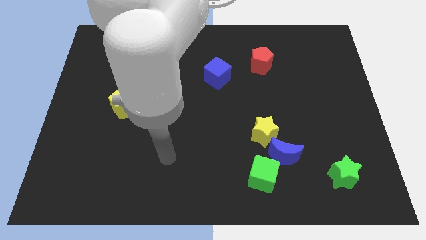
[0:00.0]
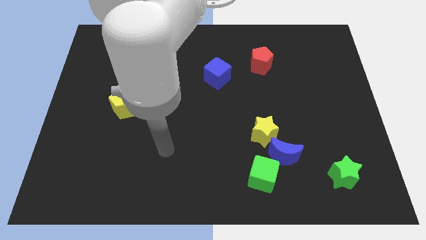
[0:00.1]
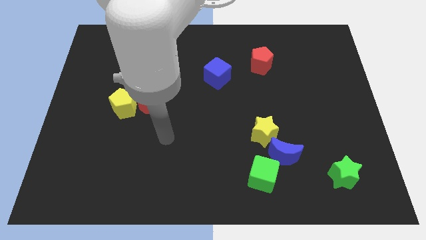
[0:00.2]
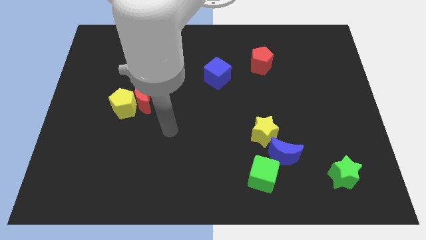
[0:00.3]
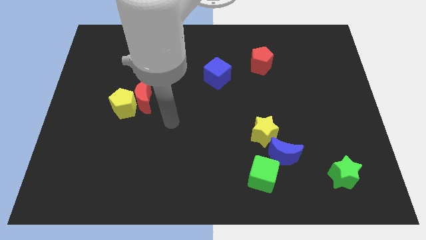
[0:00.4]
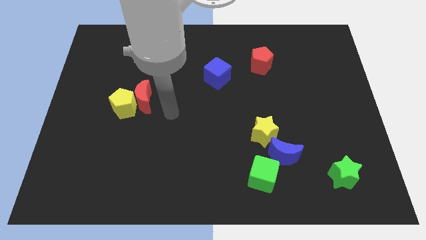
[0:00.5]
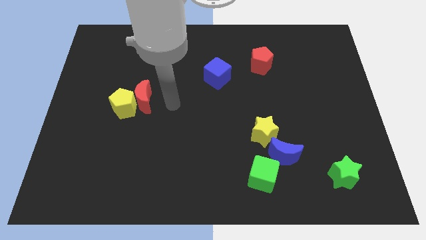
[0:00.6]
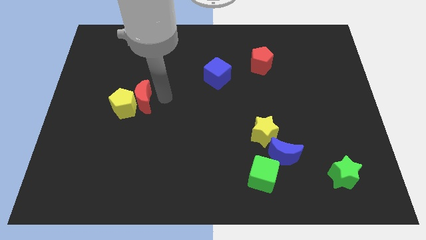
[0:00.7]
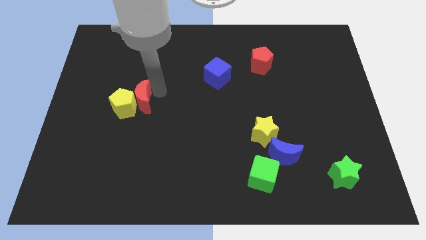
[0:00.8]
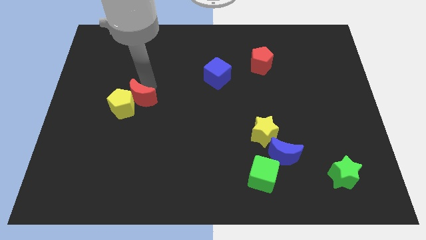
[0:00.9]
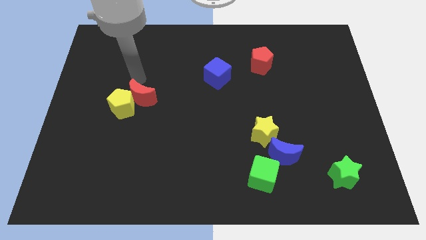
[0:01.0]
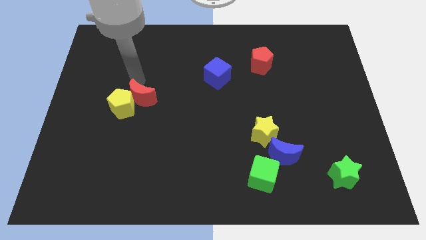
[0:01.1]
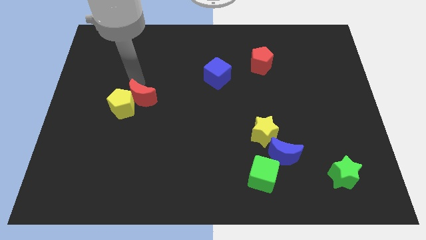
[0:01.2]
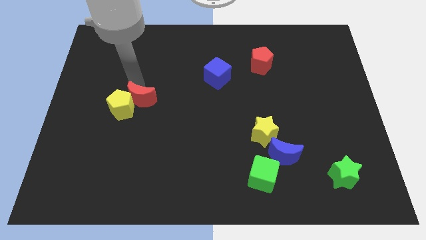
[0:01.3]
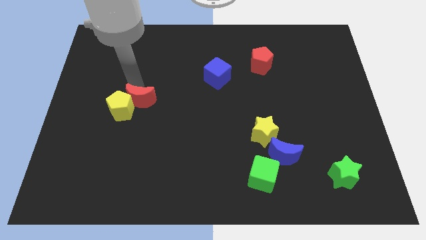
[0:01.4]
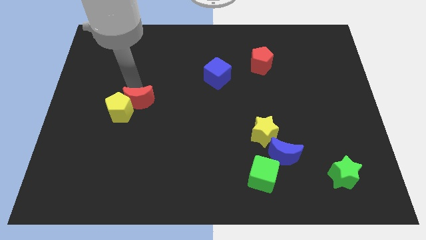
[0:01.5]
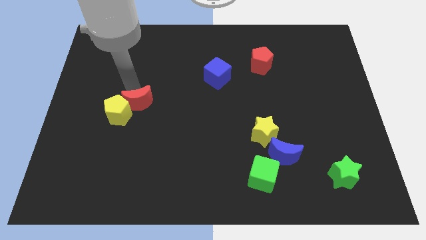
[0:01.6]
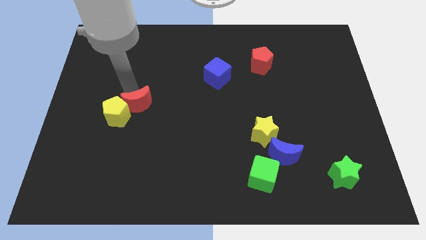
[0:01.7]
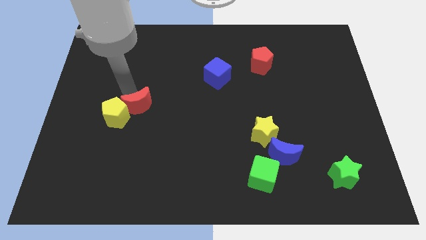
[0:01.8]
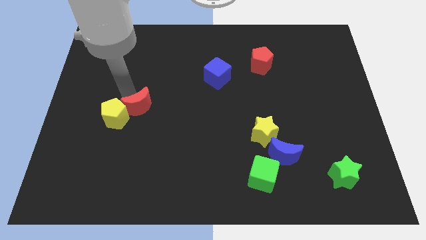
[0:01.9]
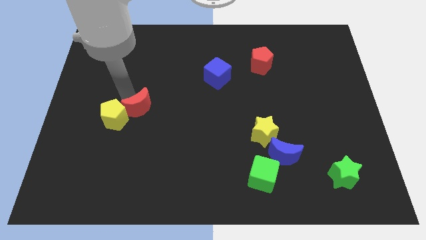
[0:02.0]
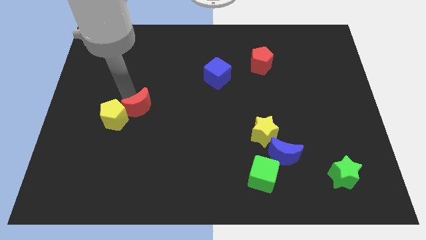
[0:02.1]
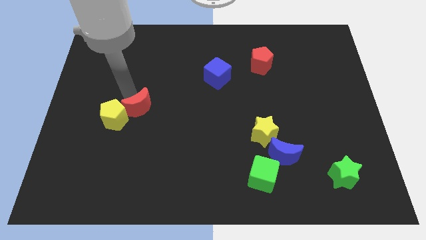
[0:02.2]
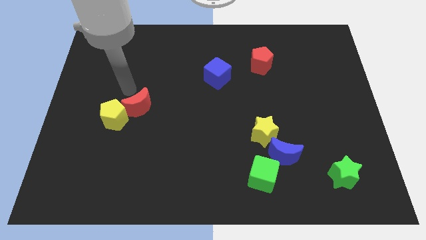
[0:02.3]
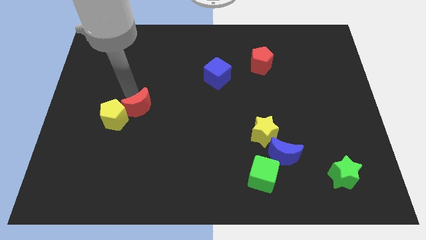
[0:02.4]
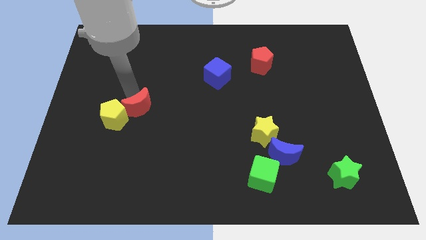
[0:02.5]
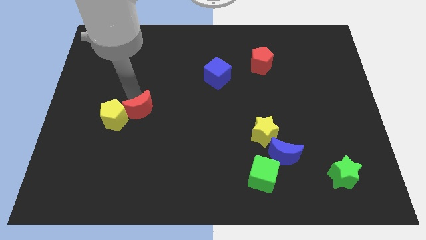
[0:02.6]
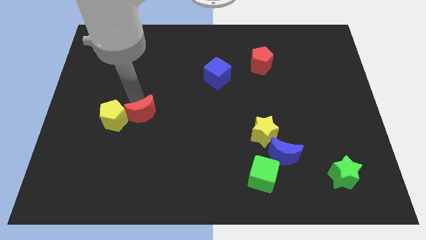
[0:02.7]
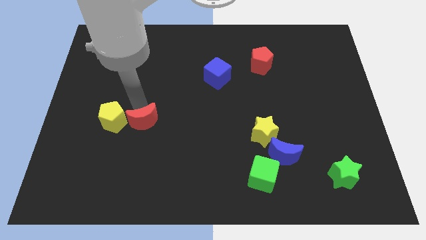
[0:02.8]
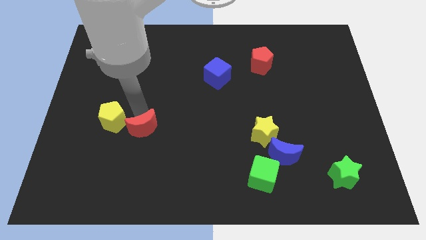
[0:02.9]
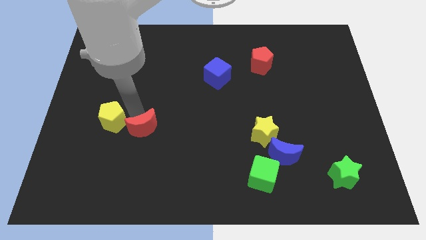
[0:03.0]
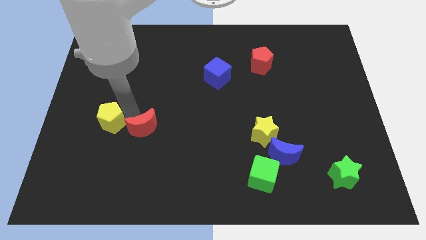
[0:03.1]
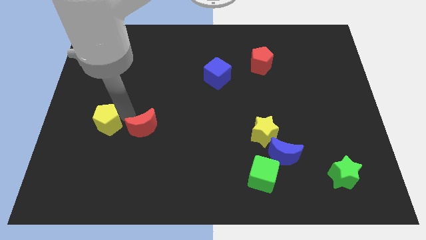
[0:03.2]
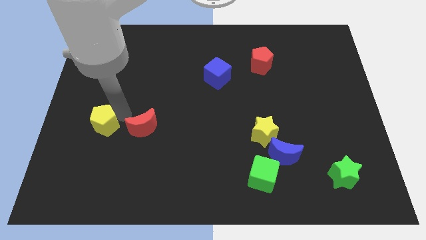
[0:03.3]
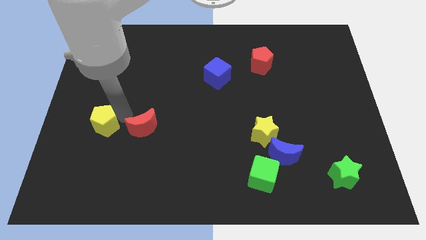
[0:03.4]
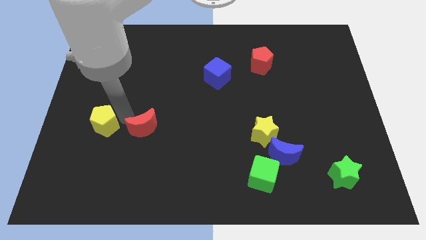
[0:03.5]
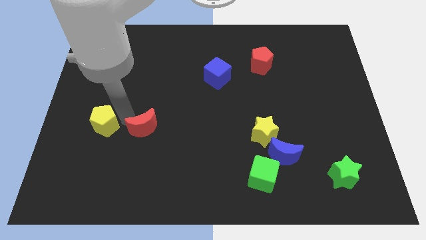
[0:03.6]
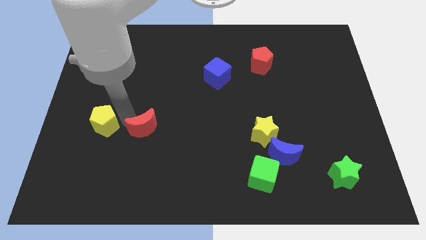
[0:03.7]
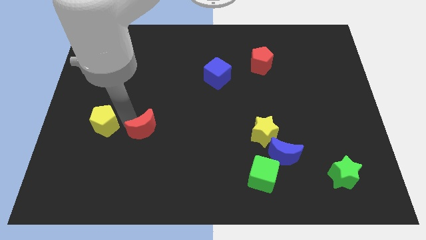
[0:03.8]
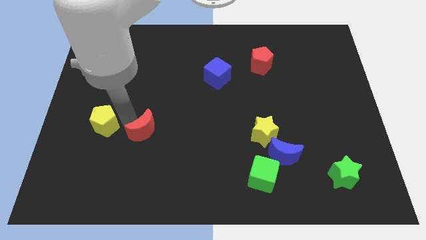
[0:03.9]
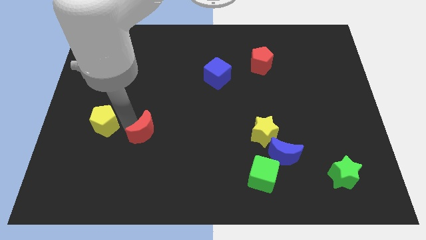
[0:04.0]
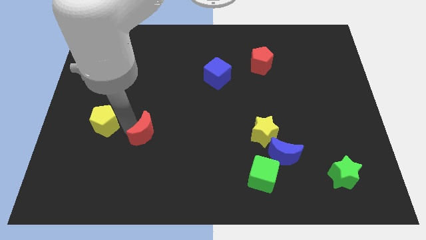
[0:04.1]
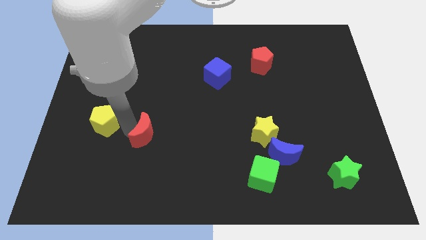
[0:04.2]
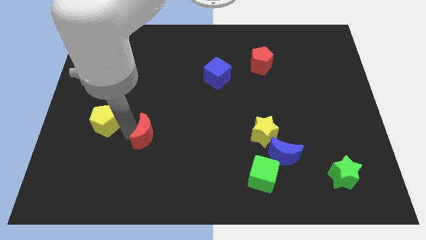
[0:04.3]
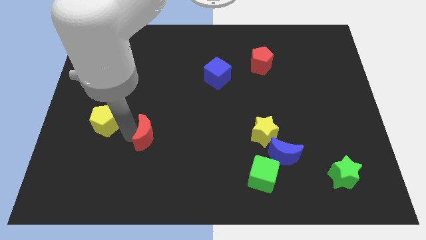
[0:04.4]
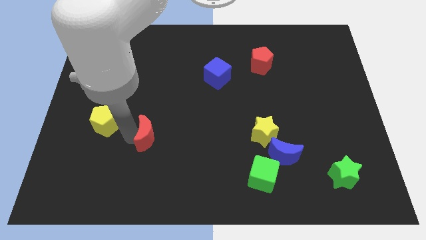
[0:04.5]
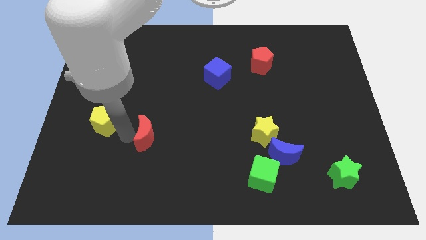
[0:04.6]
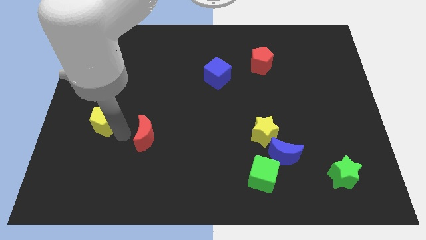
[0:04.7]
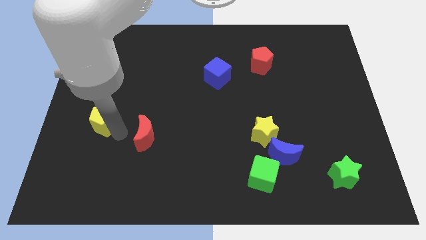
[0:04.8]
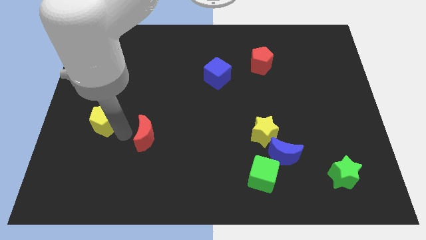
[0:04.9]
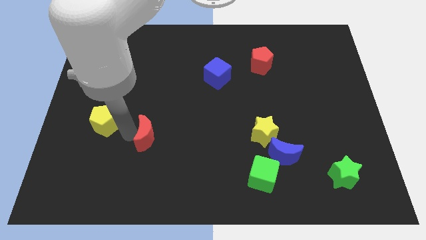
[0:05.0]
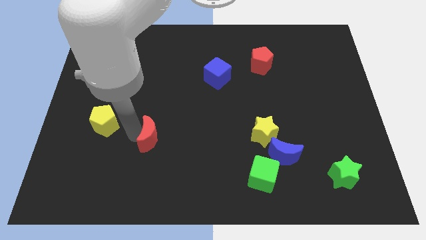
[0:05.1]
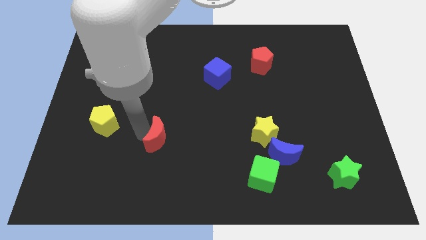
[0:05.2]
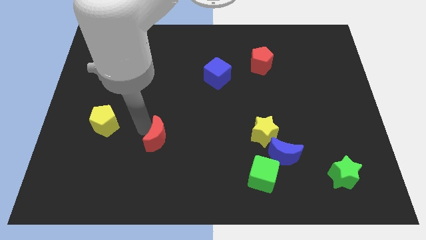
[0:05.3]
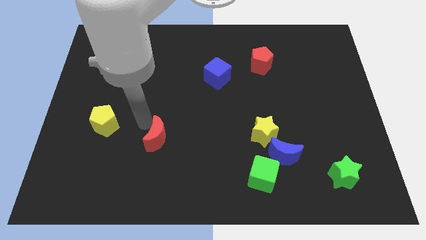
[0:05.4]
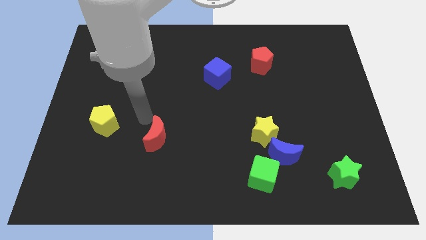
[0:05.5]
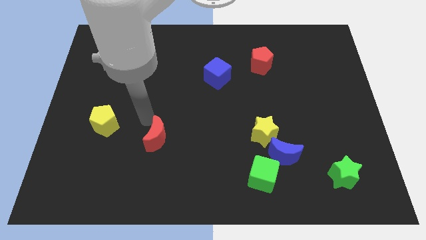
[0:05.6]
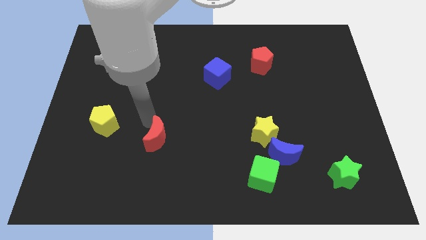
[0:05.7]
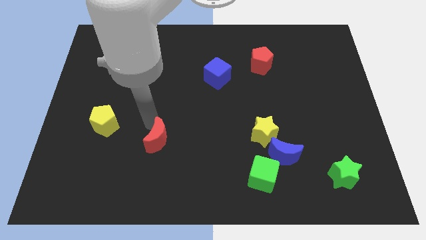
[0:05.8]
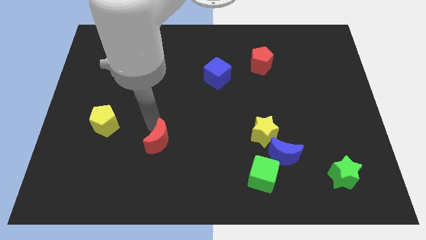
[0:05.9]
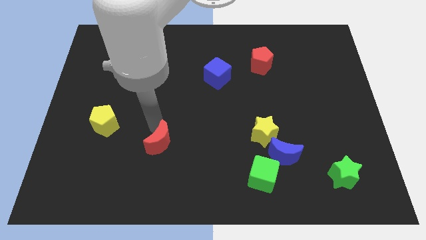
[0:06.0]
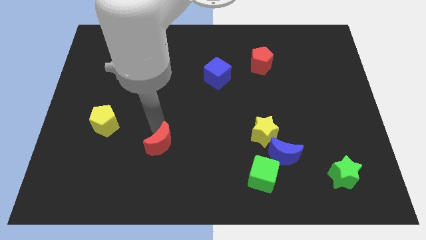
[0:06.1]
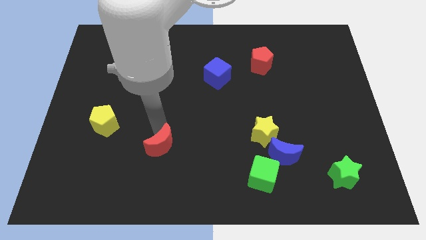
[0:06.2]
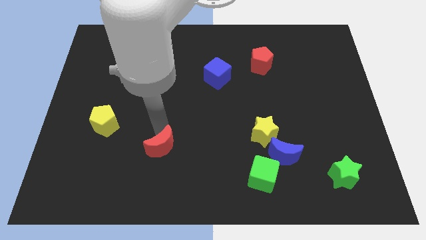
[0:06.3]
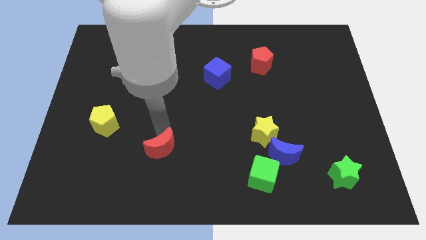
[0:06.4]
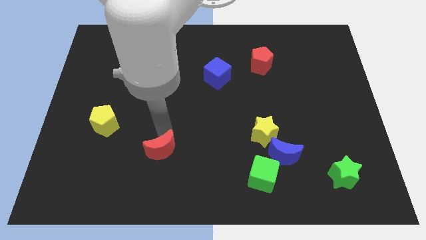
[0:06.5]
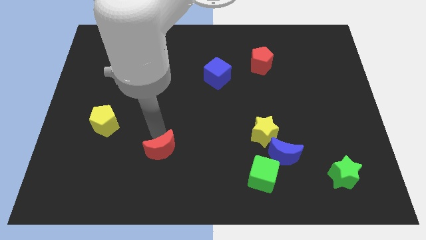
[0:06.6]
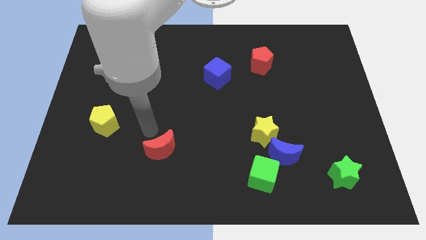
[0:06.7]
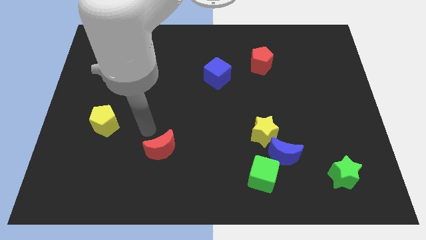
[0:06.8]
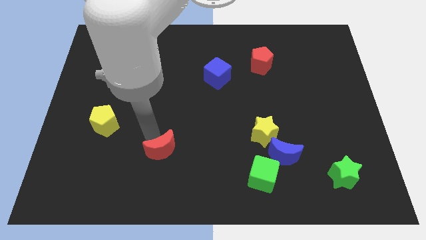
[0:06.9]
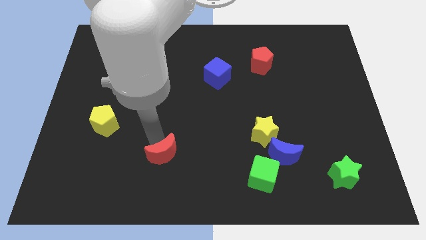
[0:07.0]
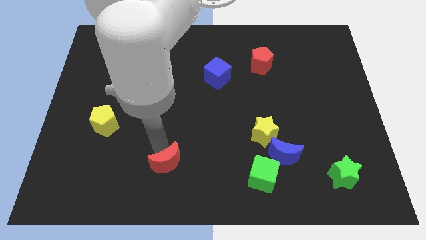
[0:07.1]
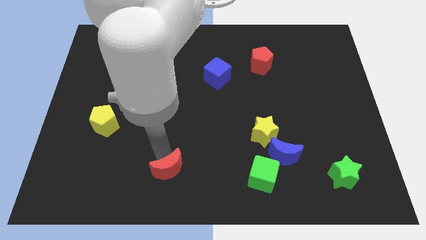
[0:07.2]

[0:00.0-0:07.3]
move the red moon to the bottom
